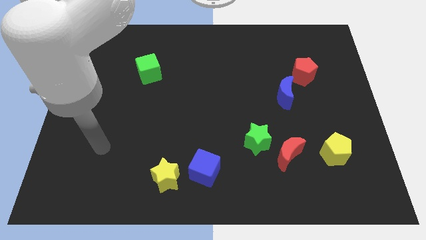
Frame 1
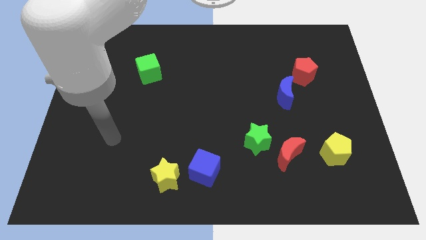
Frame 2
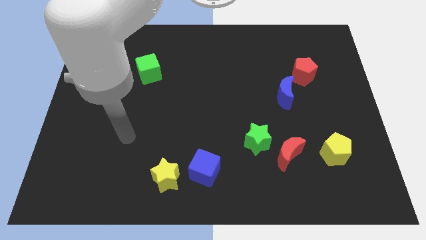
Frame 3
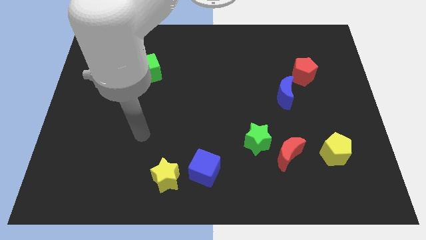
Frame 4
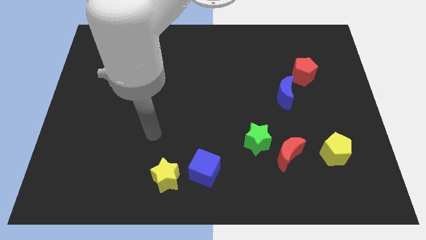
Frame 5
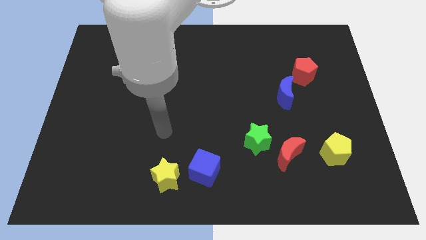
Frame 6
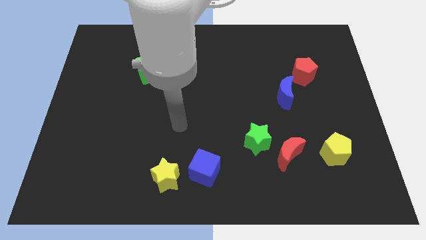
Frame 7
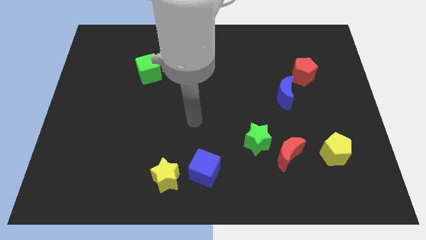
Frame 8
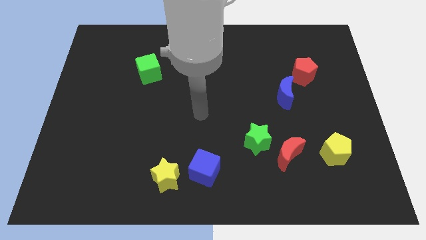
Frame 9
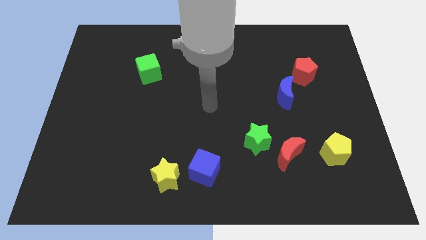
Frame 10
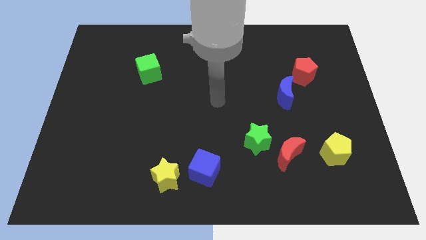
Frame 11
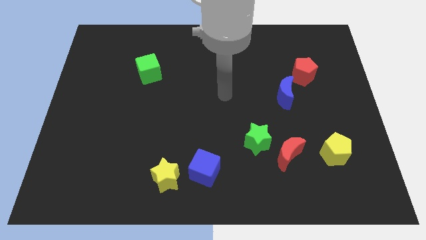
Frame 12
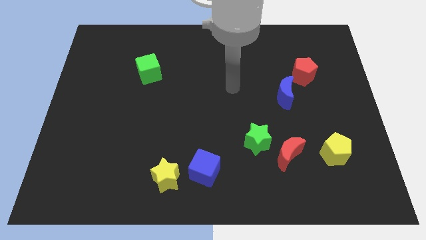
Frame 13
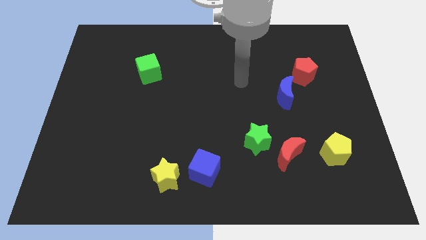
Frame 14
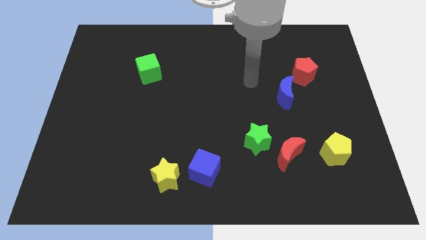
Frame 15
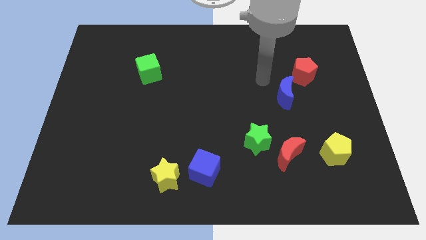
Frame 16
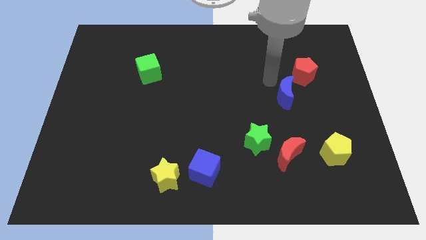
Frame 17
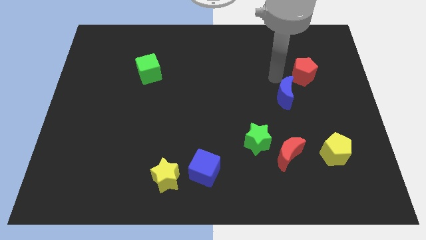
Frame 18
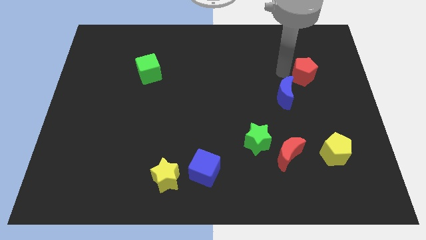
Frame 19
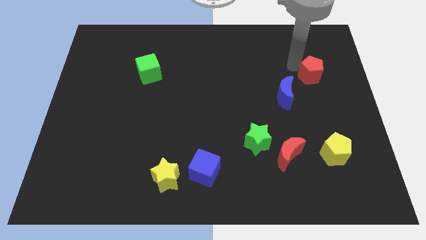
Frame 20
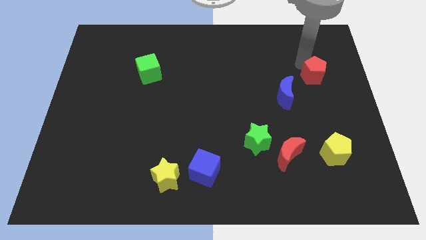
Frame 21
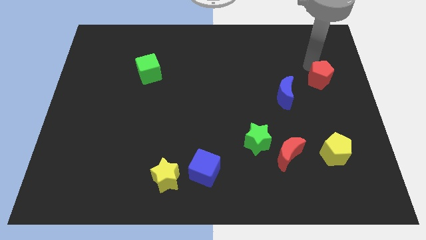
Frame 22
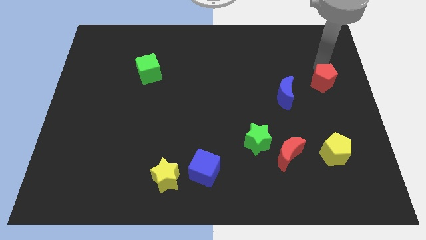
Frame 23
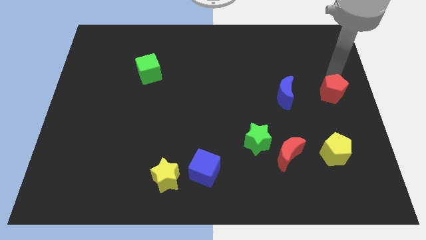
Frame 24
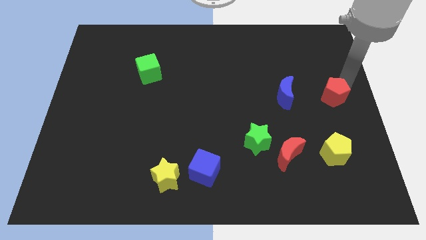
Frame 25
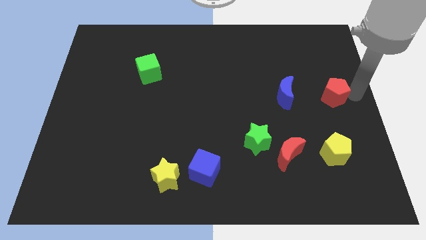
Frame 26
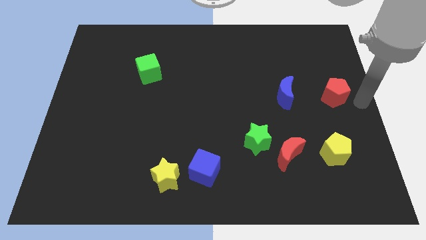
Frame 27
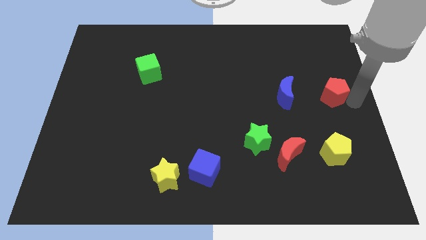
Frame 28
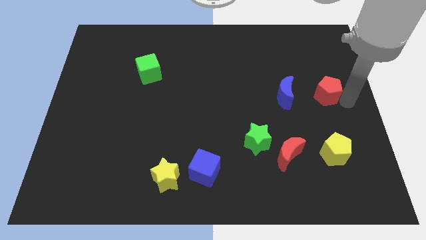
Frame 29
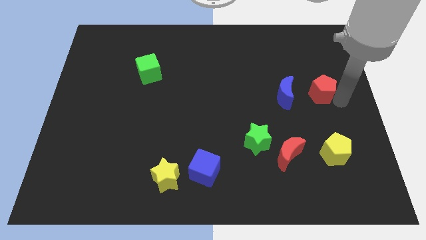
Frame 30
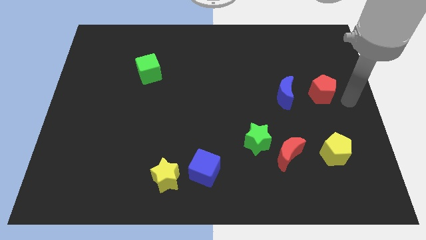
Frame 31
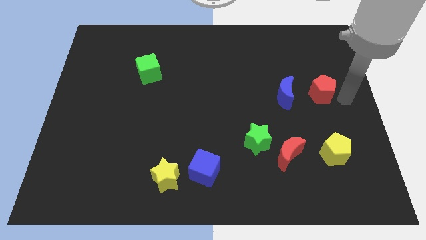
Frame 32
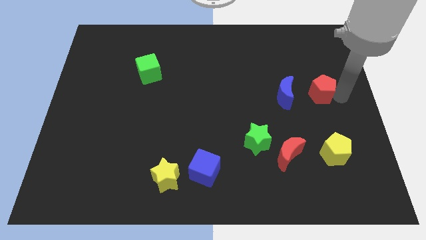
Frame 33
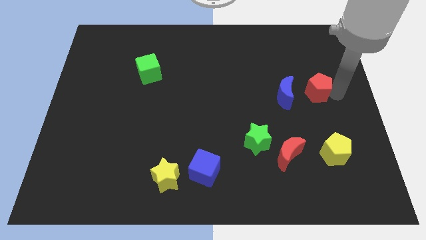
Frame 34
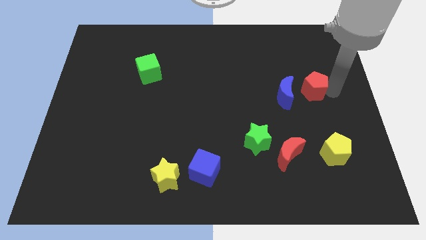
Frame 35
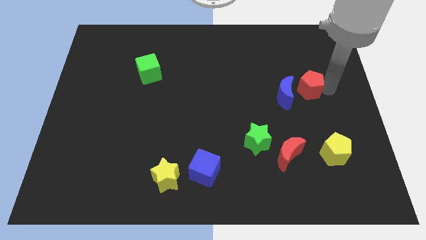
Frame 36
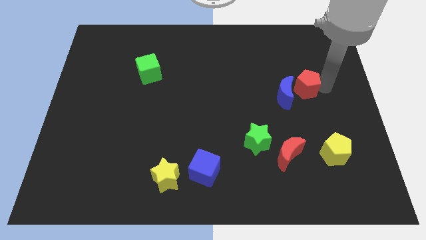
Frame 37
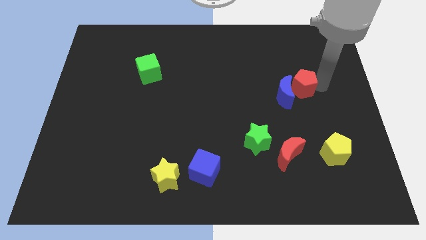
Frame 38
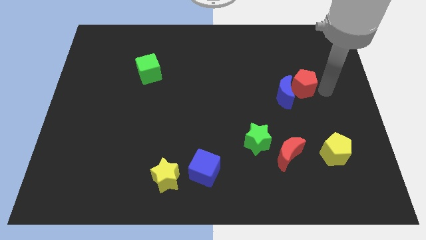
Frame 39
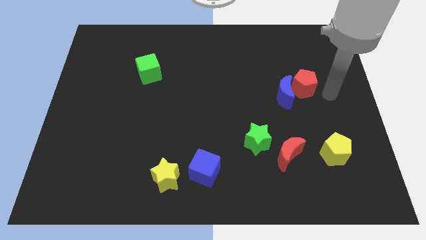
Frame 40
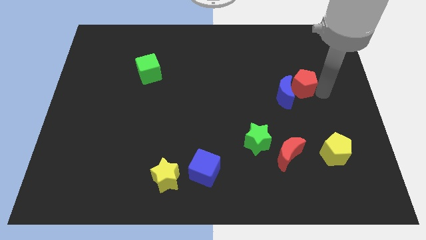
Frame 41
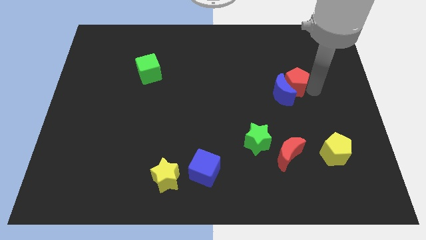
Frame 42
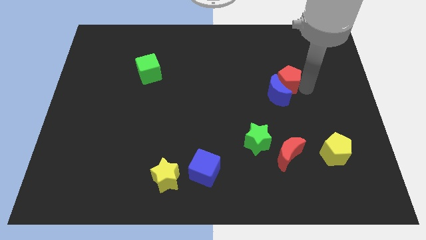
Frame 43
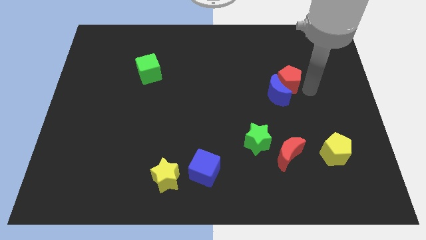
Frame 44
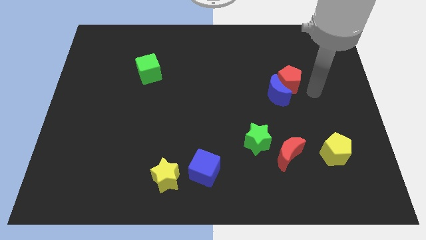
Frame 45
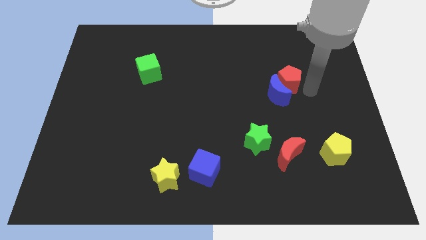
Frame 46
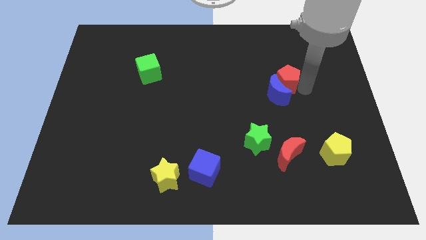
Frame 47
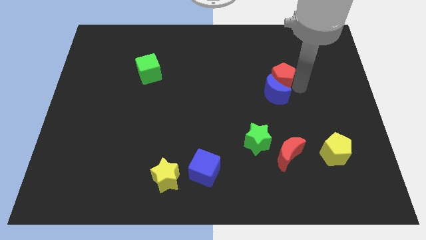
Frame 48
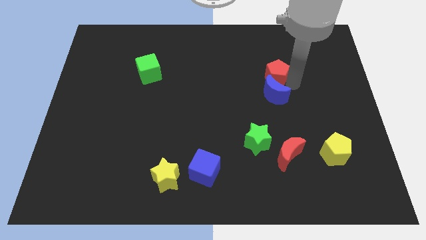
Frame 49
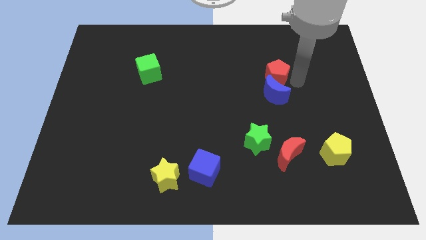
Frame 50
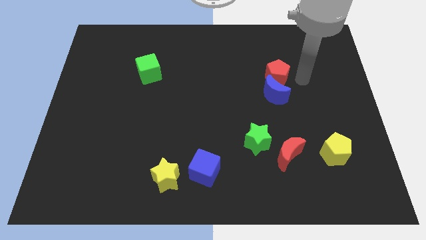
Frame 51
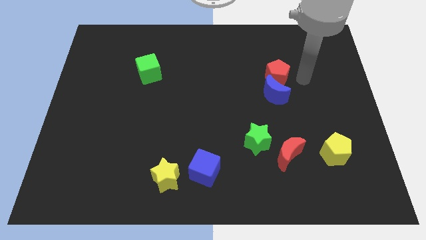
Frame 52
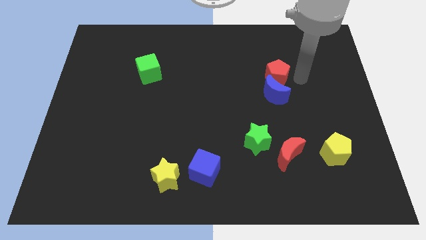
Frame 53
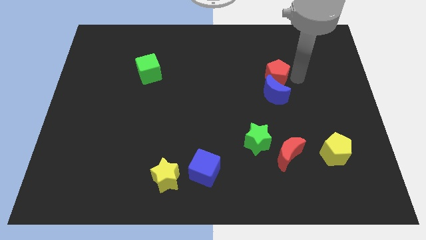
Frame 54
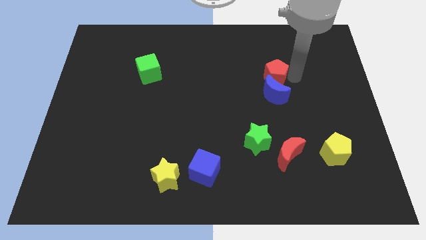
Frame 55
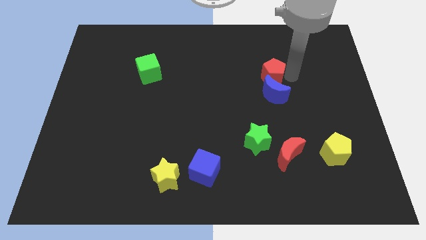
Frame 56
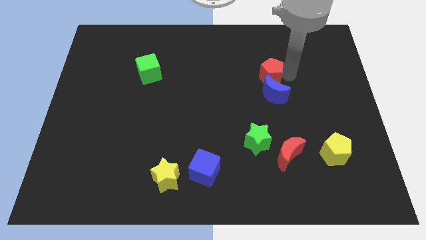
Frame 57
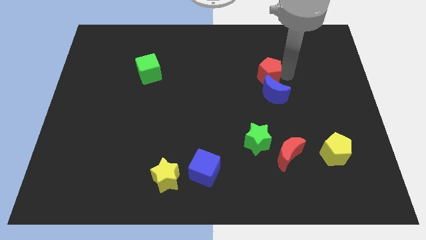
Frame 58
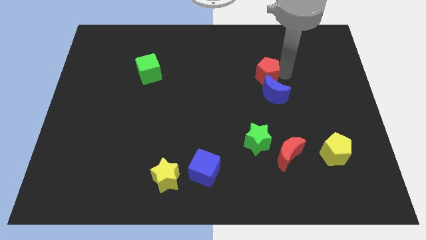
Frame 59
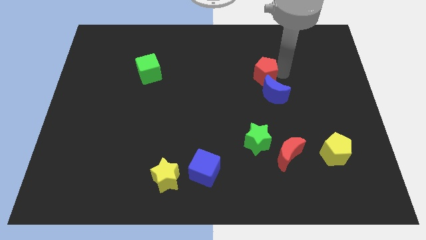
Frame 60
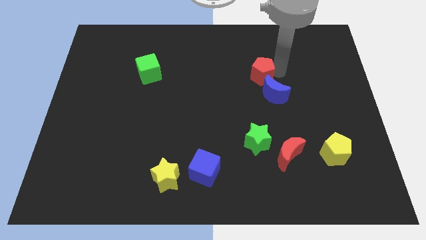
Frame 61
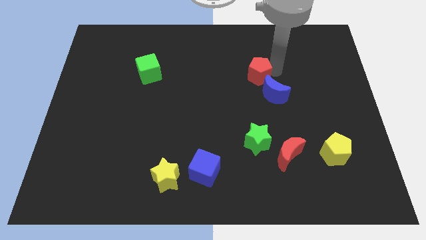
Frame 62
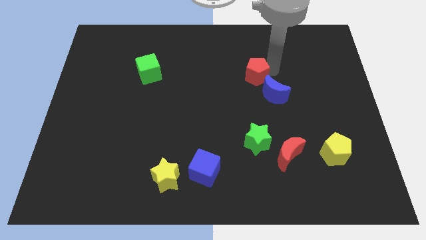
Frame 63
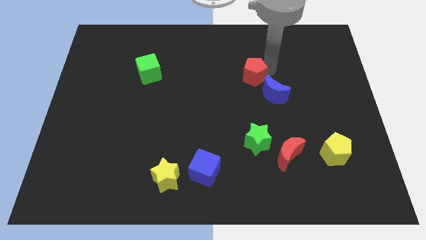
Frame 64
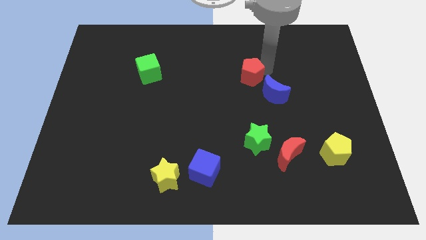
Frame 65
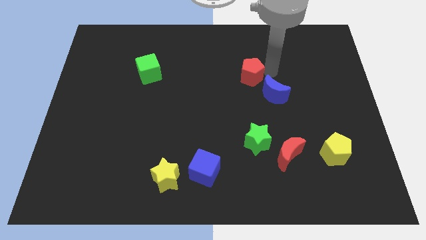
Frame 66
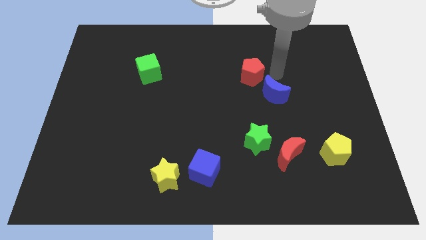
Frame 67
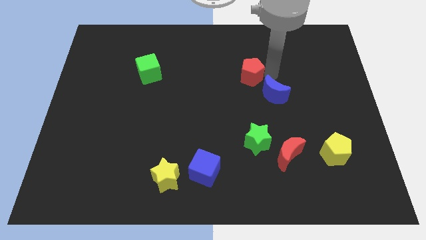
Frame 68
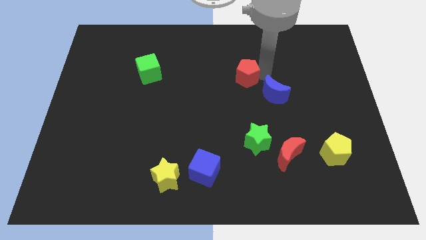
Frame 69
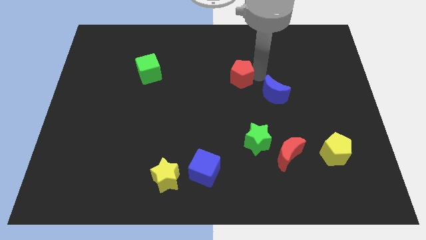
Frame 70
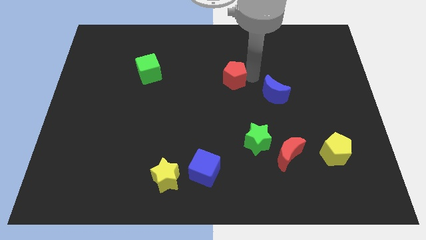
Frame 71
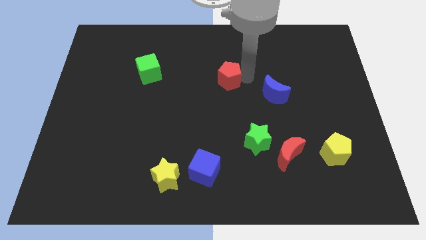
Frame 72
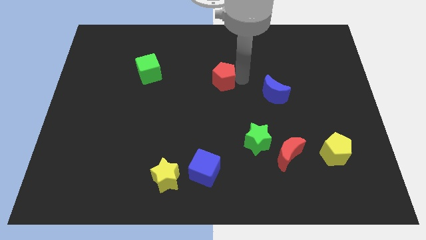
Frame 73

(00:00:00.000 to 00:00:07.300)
move the red pentagon left

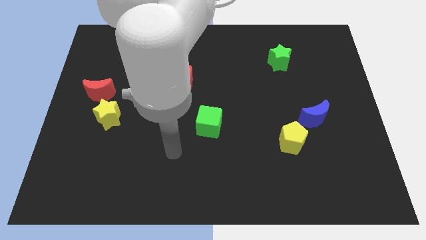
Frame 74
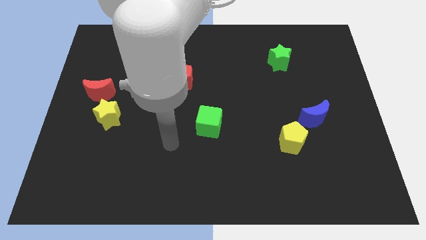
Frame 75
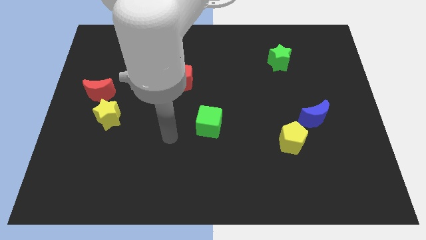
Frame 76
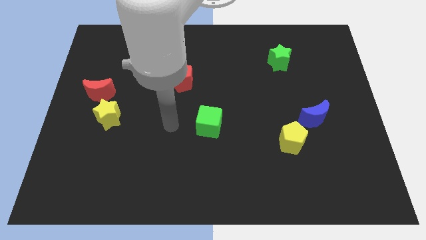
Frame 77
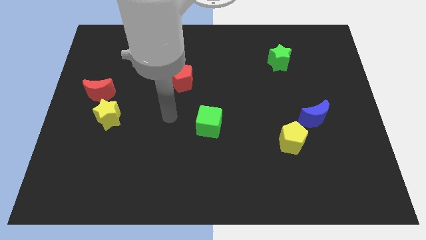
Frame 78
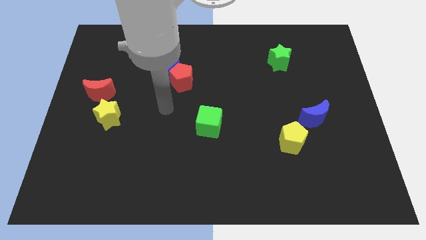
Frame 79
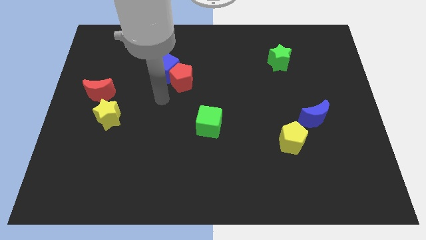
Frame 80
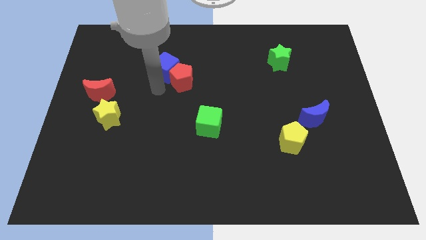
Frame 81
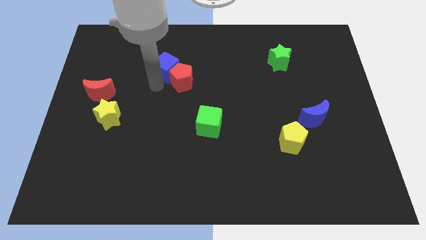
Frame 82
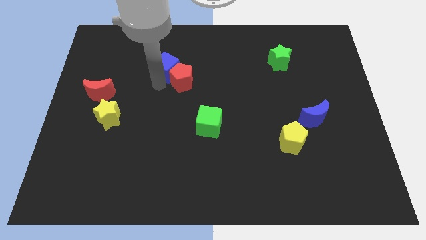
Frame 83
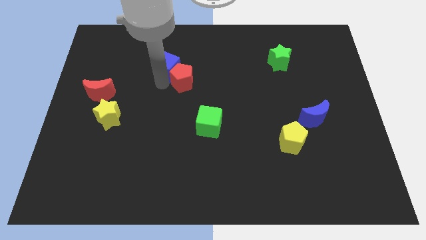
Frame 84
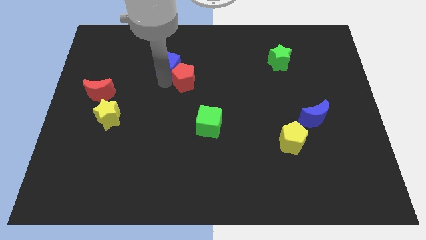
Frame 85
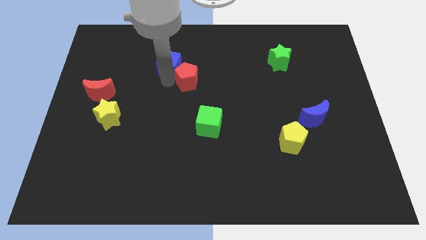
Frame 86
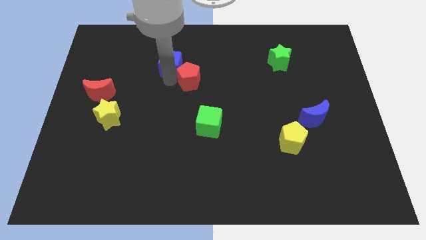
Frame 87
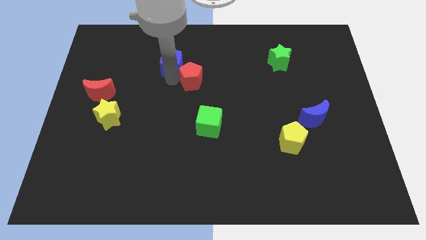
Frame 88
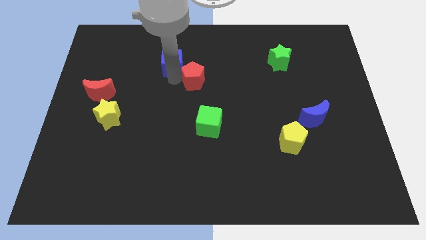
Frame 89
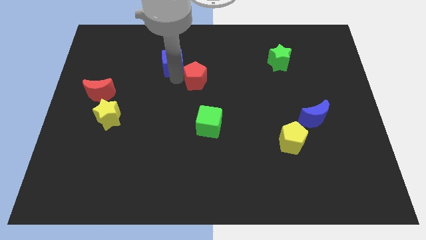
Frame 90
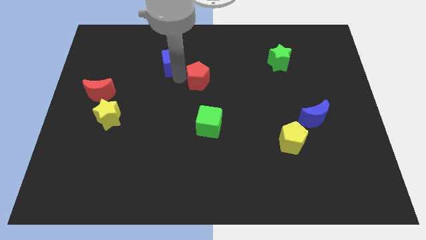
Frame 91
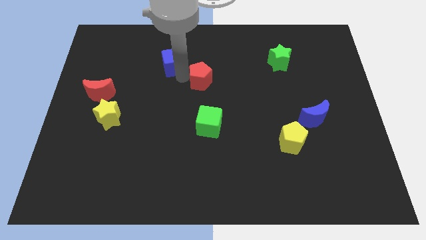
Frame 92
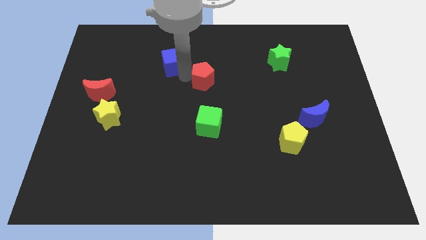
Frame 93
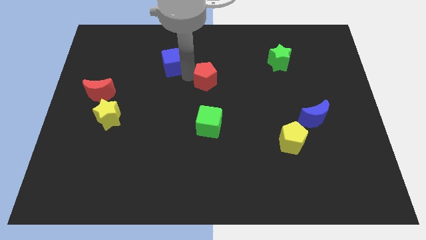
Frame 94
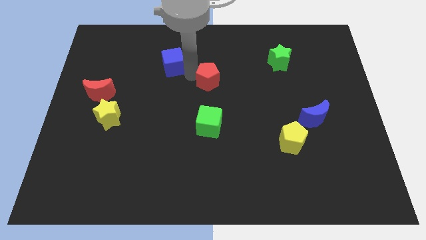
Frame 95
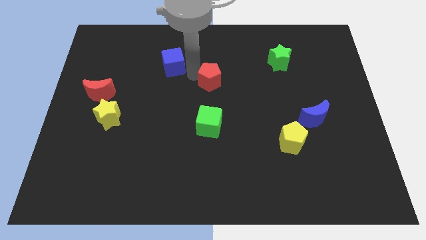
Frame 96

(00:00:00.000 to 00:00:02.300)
move the red pentagon to the right slightly
